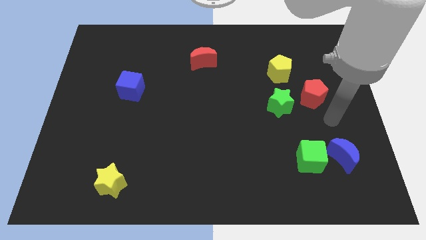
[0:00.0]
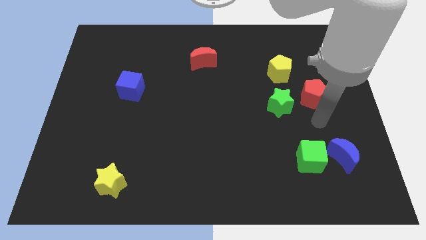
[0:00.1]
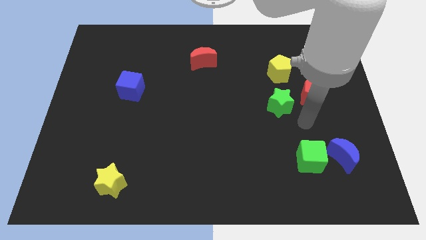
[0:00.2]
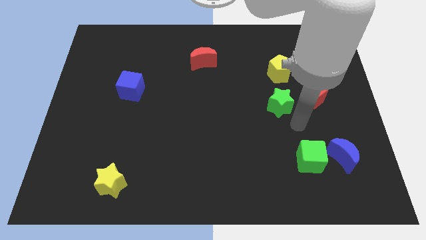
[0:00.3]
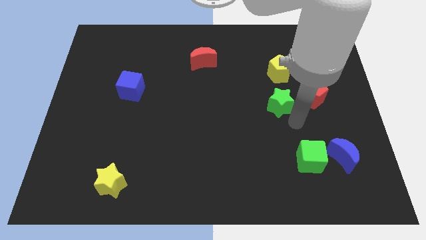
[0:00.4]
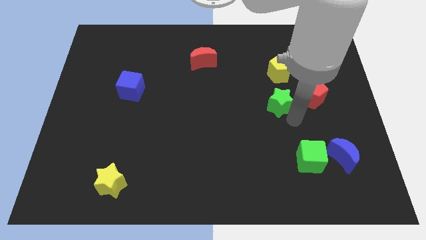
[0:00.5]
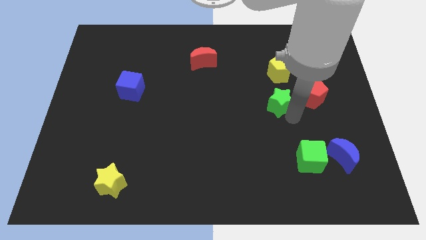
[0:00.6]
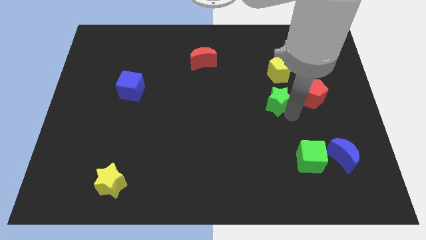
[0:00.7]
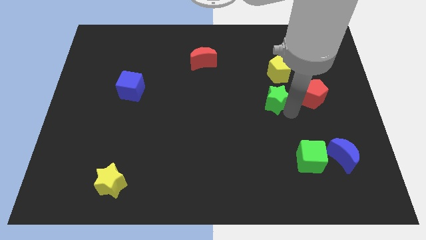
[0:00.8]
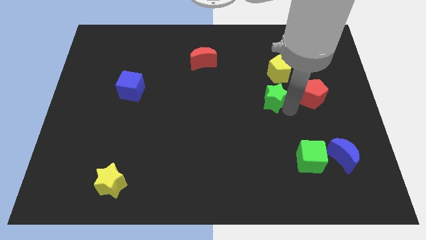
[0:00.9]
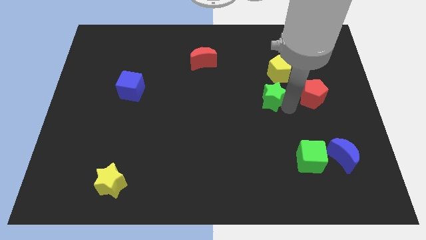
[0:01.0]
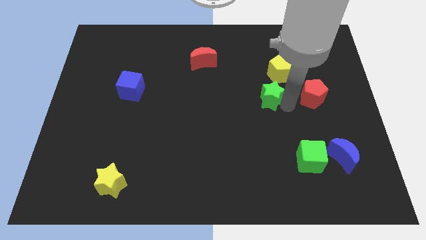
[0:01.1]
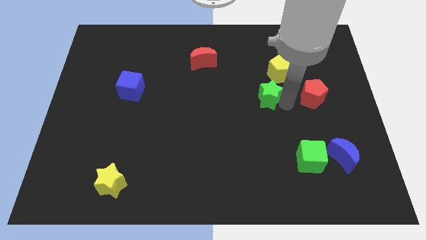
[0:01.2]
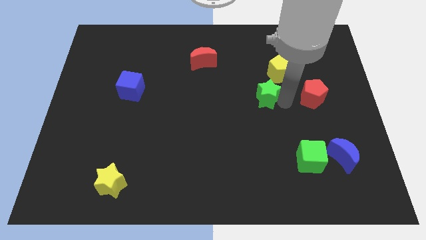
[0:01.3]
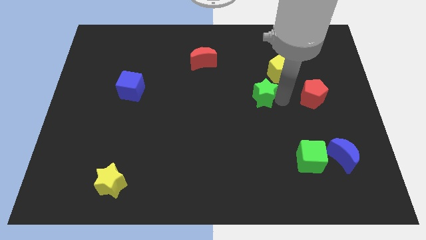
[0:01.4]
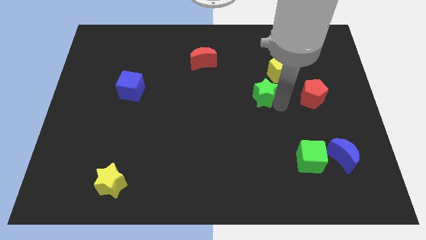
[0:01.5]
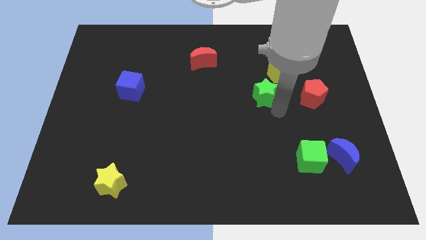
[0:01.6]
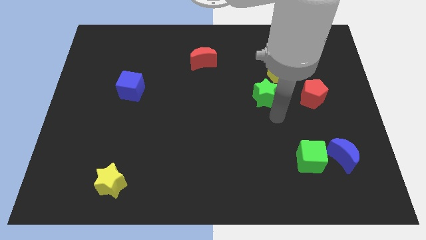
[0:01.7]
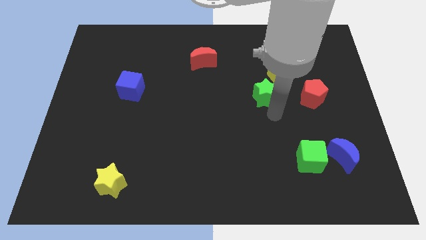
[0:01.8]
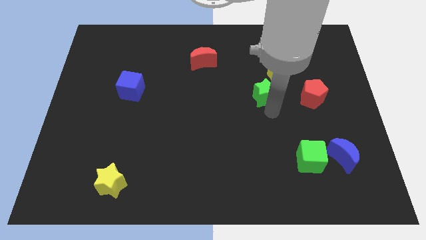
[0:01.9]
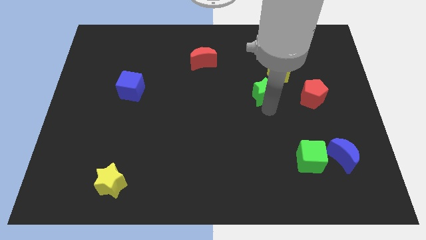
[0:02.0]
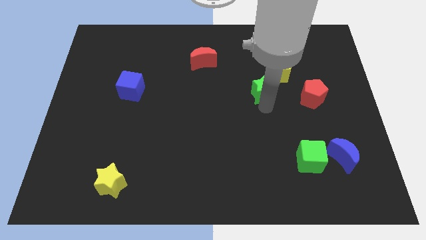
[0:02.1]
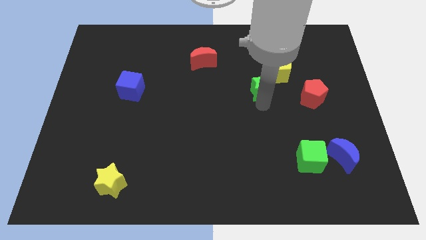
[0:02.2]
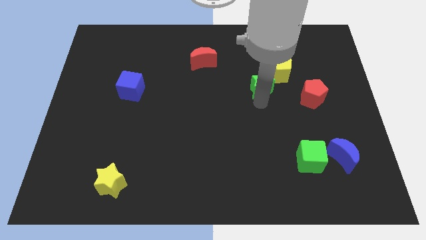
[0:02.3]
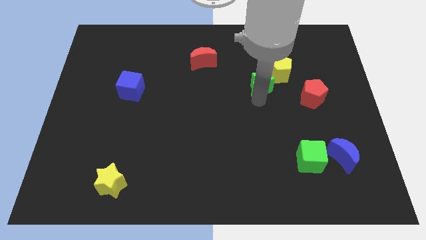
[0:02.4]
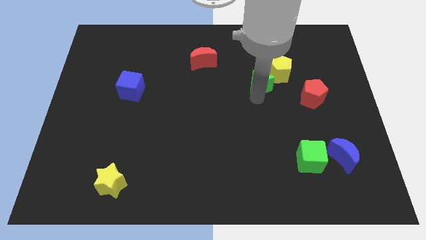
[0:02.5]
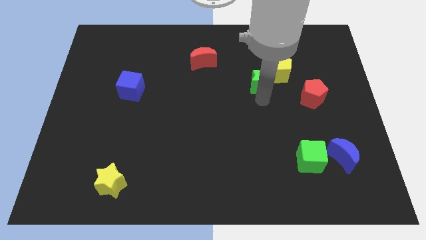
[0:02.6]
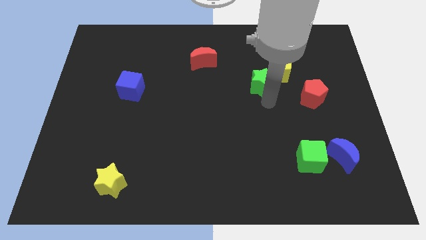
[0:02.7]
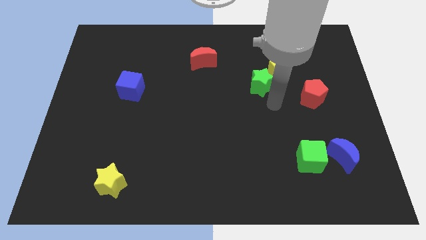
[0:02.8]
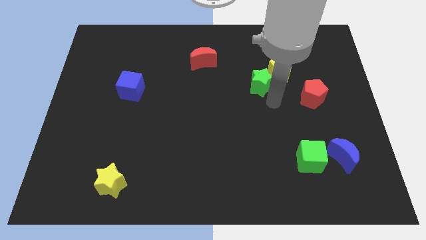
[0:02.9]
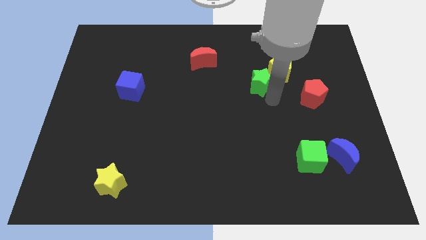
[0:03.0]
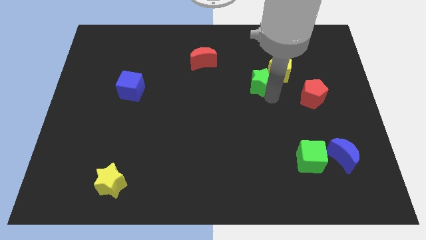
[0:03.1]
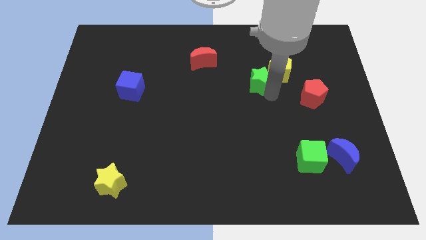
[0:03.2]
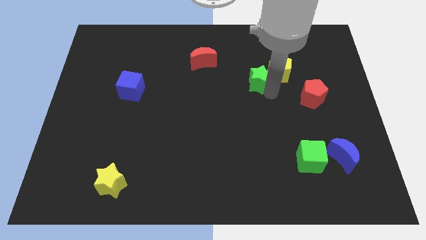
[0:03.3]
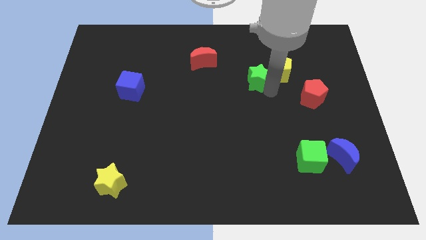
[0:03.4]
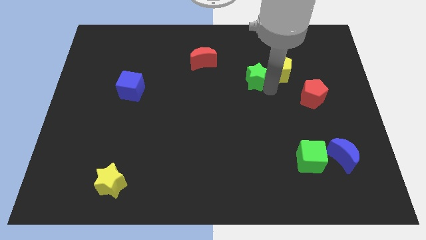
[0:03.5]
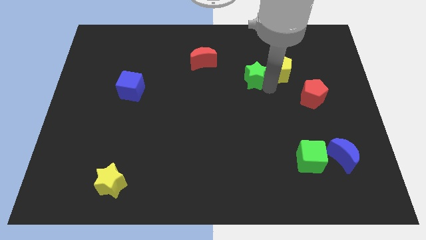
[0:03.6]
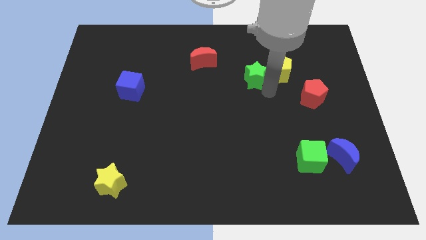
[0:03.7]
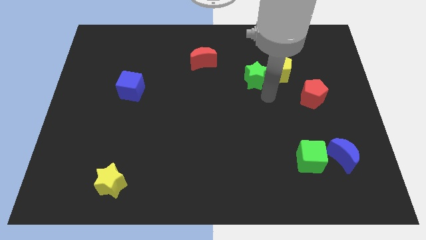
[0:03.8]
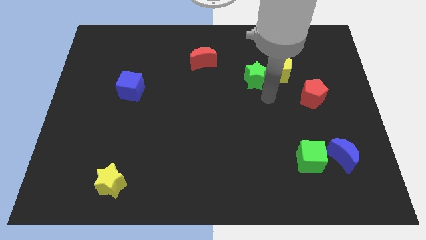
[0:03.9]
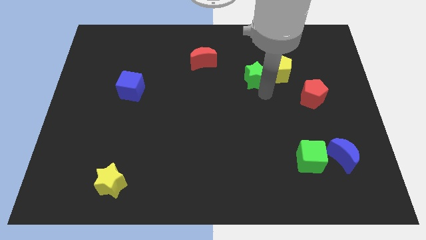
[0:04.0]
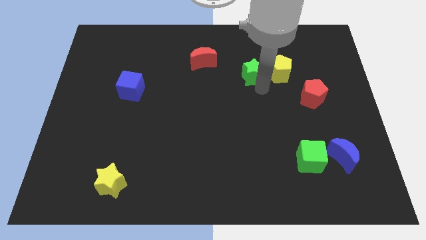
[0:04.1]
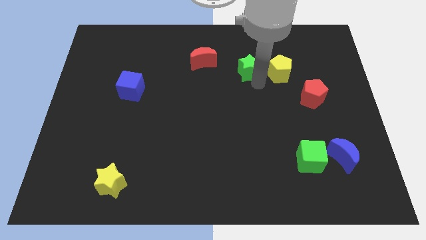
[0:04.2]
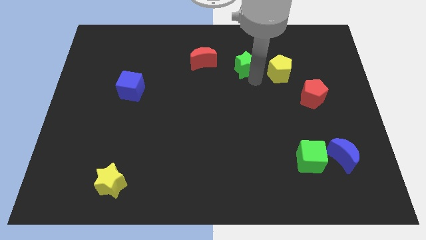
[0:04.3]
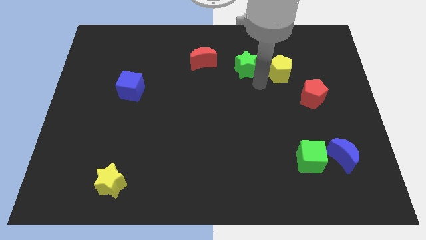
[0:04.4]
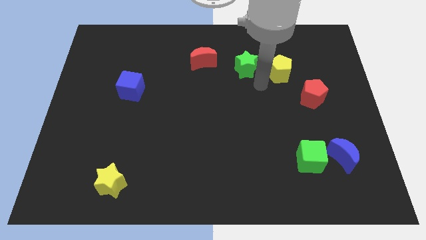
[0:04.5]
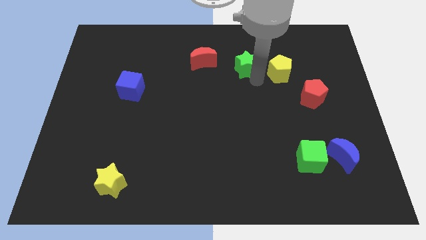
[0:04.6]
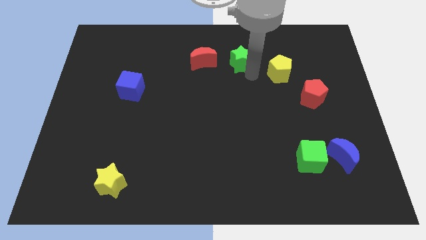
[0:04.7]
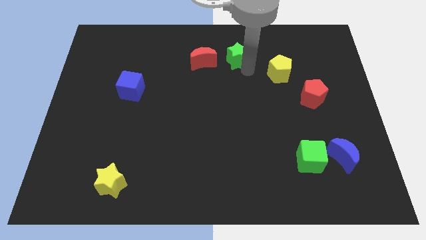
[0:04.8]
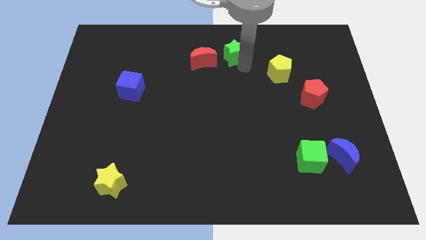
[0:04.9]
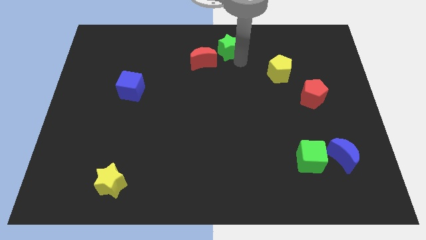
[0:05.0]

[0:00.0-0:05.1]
put the green star to the top

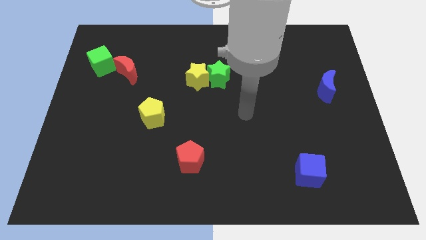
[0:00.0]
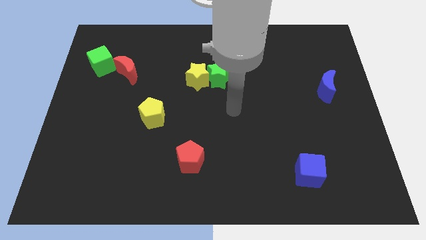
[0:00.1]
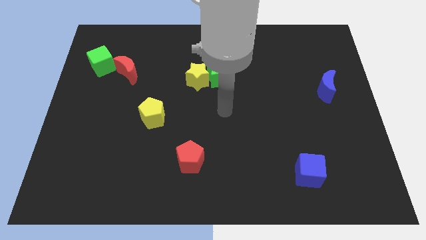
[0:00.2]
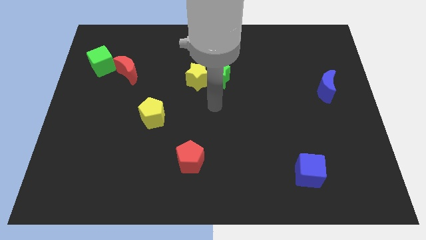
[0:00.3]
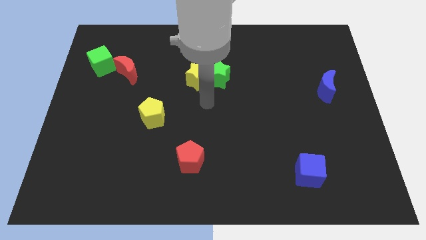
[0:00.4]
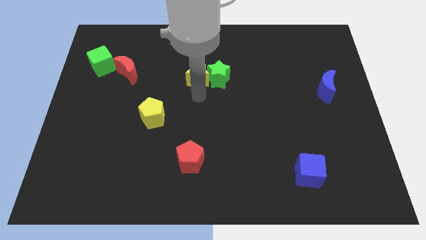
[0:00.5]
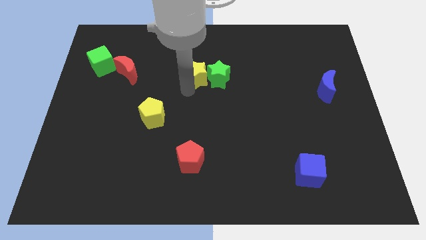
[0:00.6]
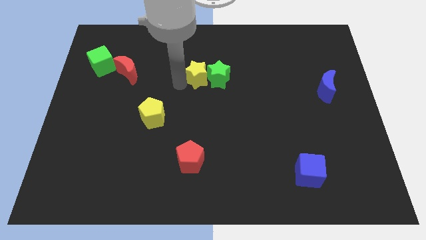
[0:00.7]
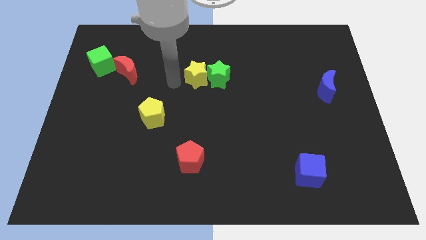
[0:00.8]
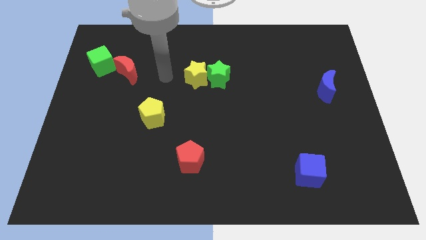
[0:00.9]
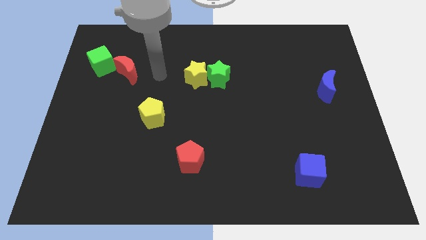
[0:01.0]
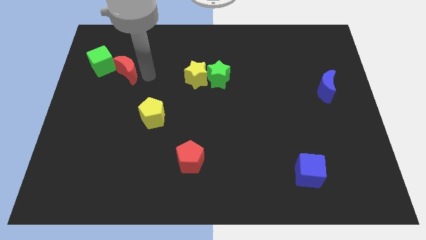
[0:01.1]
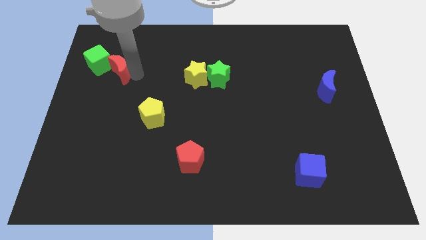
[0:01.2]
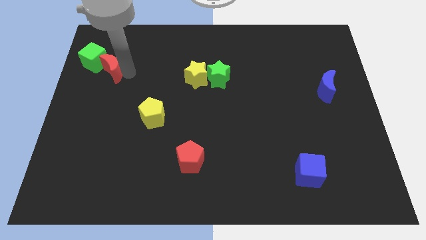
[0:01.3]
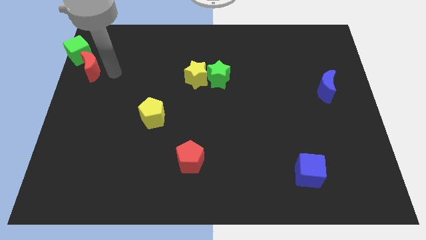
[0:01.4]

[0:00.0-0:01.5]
slide the green cube to the upper left corner
